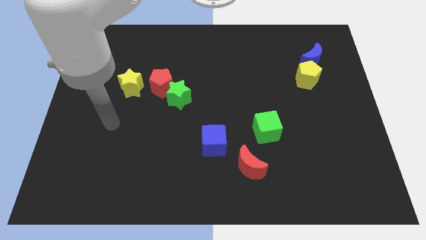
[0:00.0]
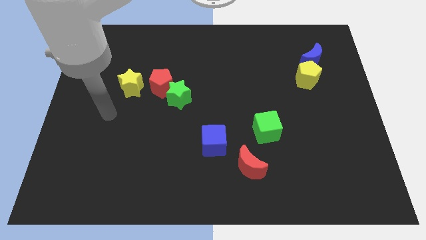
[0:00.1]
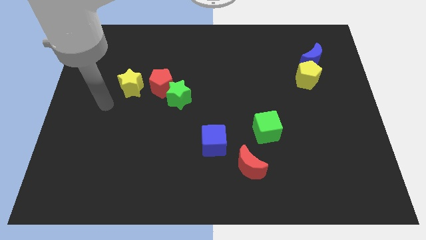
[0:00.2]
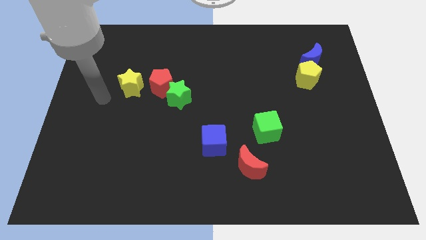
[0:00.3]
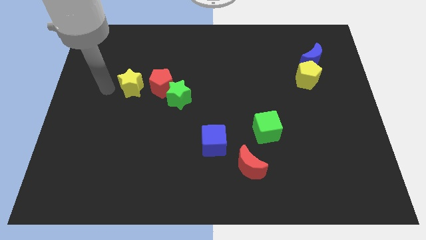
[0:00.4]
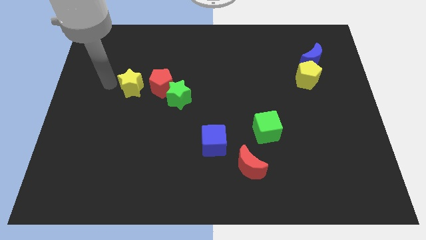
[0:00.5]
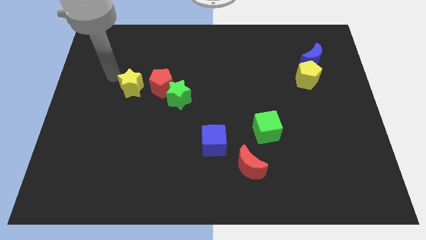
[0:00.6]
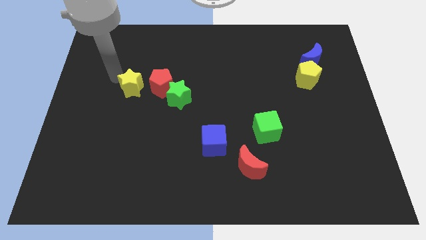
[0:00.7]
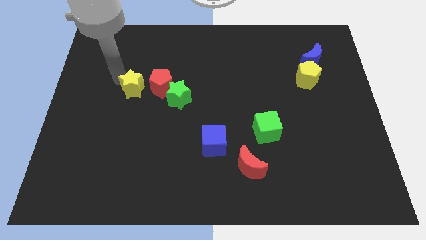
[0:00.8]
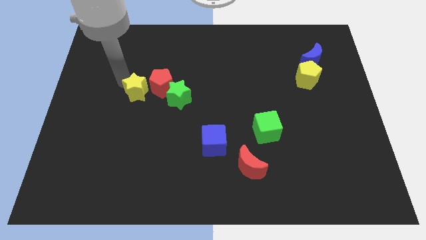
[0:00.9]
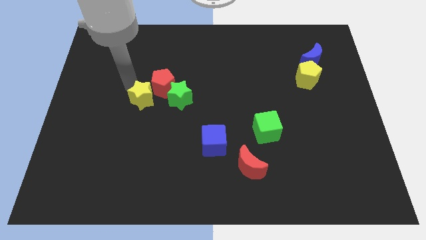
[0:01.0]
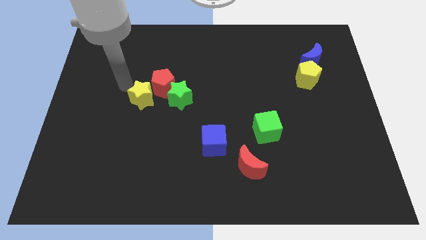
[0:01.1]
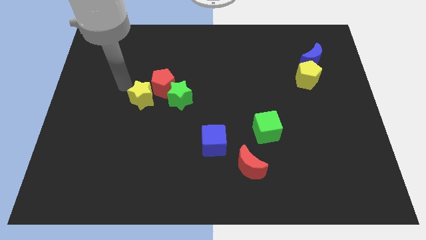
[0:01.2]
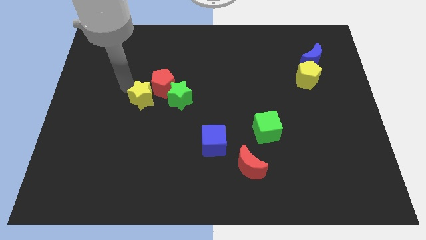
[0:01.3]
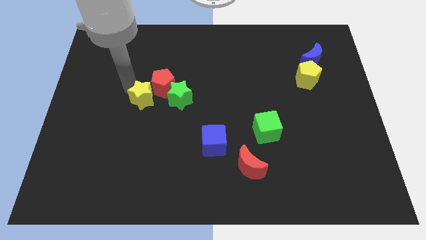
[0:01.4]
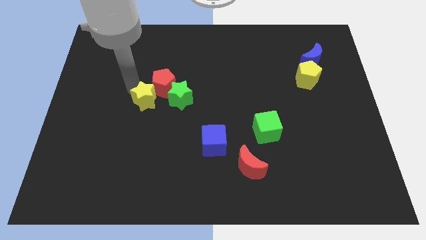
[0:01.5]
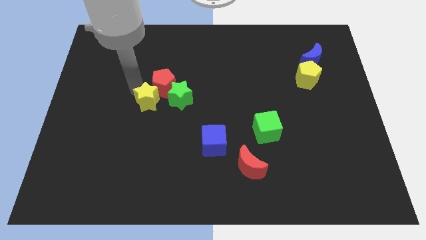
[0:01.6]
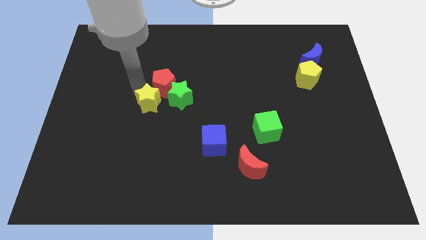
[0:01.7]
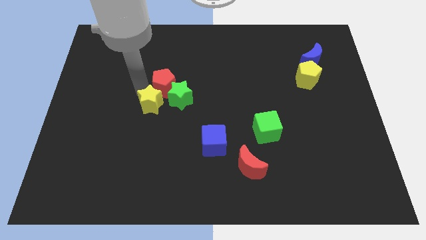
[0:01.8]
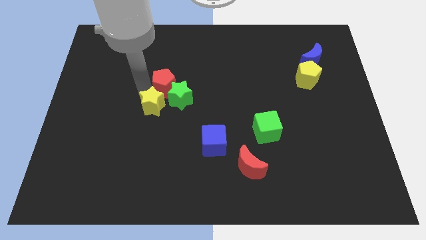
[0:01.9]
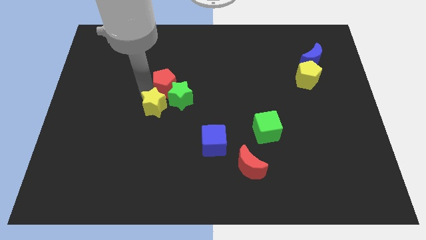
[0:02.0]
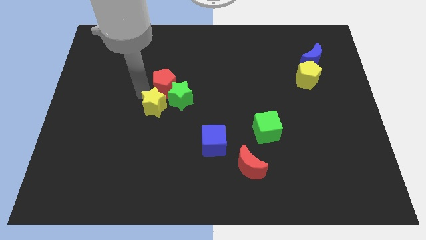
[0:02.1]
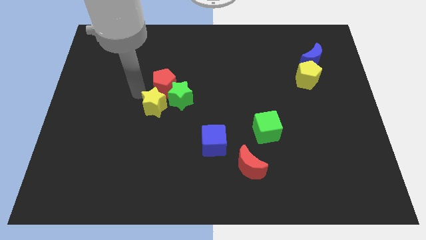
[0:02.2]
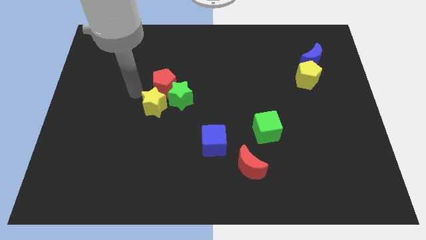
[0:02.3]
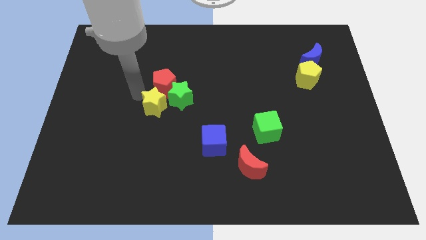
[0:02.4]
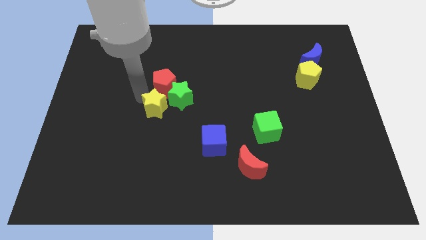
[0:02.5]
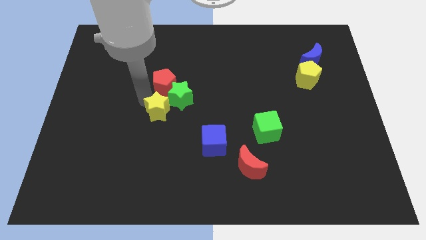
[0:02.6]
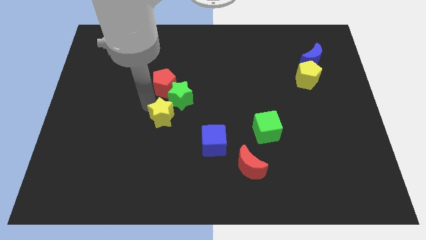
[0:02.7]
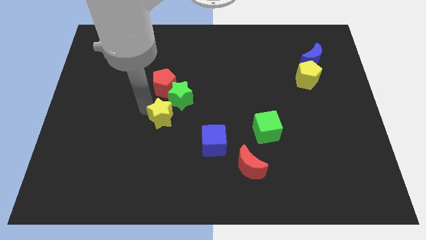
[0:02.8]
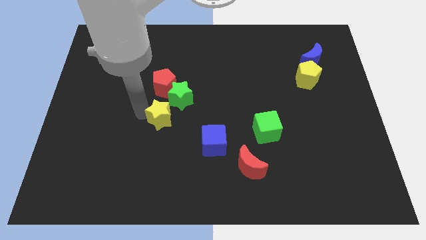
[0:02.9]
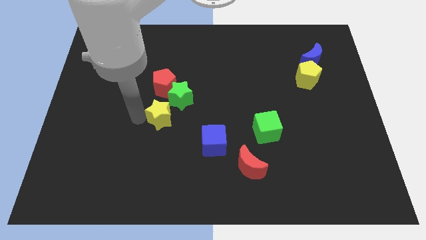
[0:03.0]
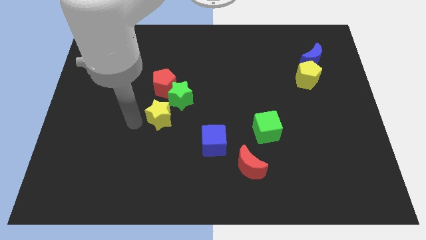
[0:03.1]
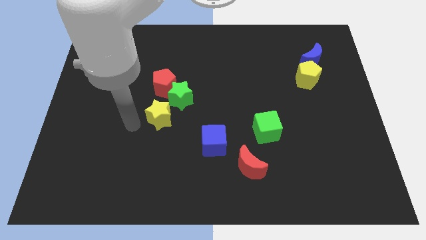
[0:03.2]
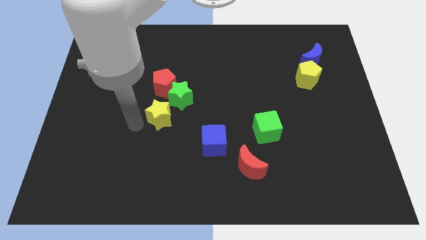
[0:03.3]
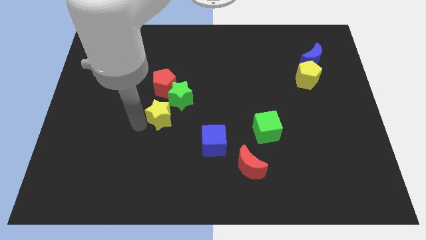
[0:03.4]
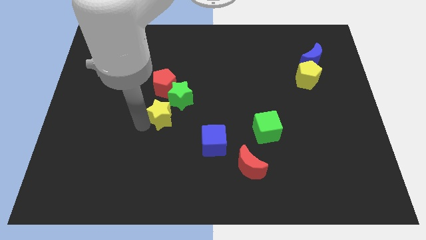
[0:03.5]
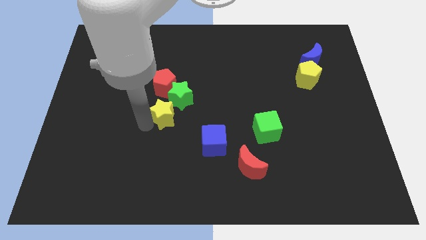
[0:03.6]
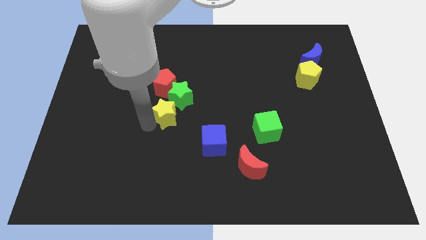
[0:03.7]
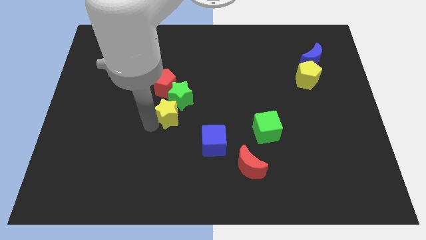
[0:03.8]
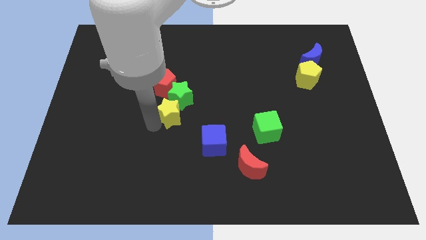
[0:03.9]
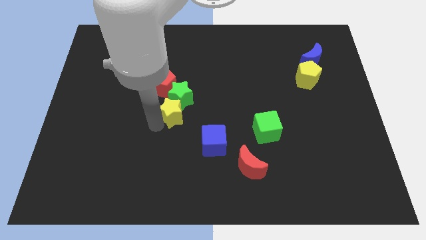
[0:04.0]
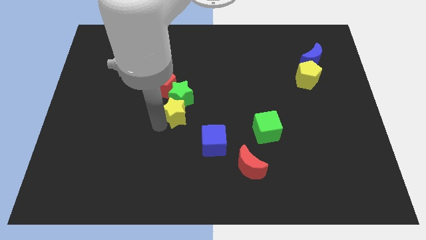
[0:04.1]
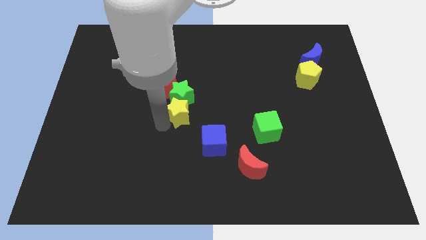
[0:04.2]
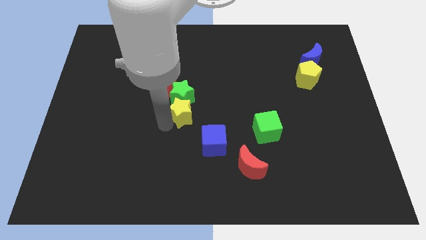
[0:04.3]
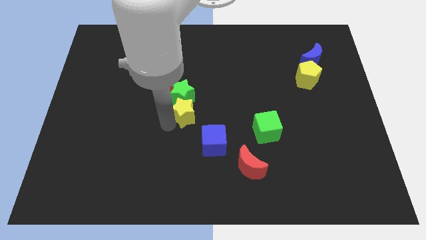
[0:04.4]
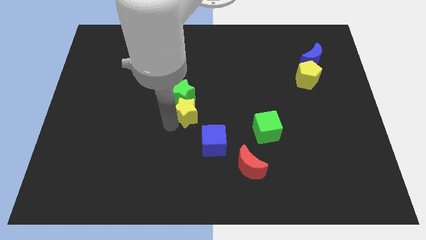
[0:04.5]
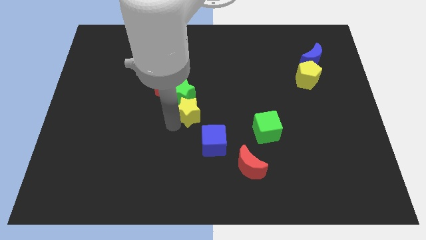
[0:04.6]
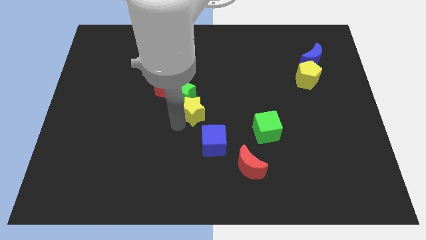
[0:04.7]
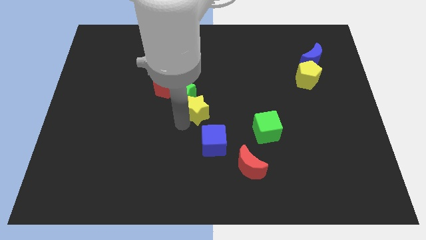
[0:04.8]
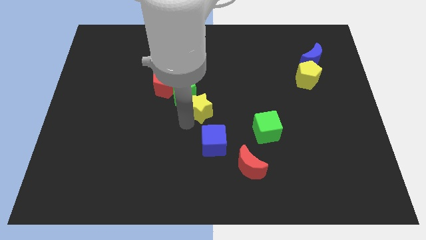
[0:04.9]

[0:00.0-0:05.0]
put the yellow star just right of the green star

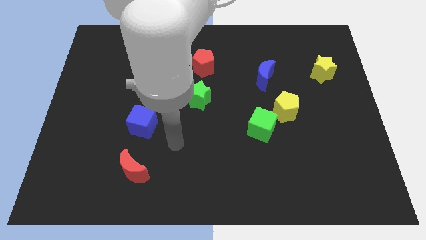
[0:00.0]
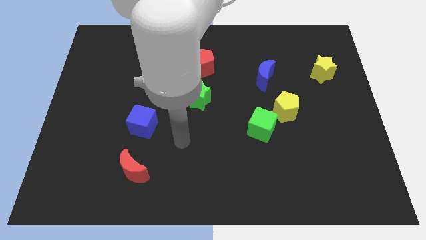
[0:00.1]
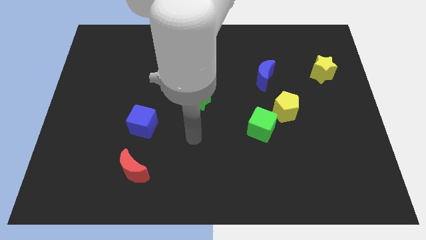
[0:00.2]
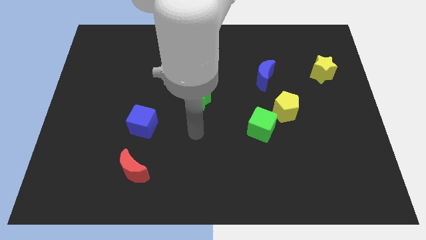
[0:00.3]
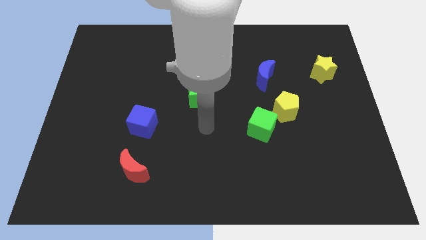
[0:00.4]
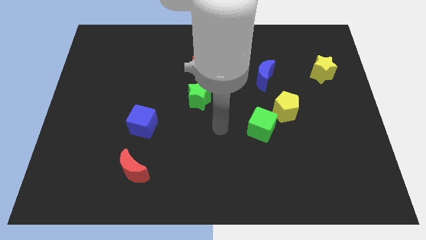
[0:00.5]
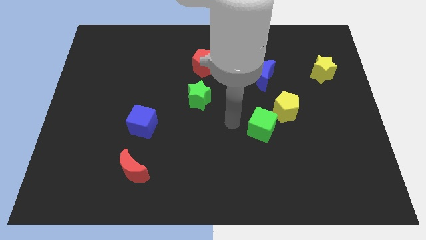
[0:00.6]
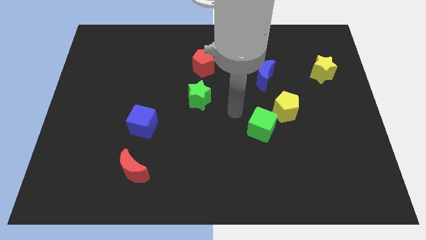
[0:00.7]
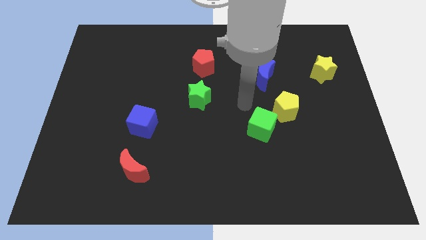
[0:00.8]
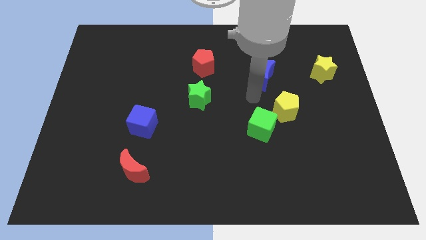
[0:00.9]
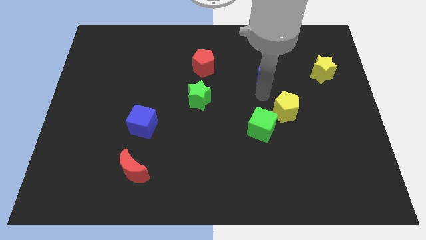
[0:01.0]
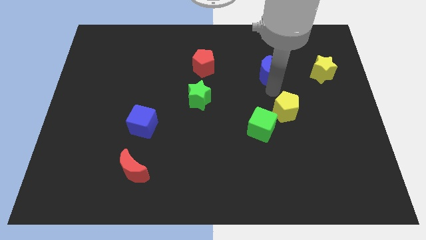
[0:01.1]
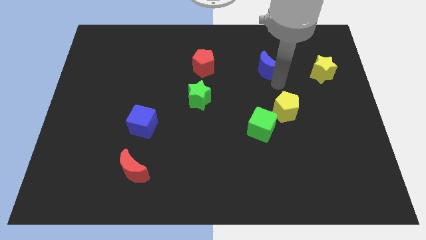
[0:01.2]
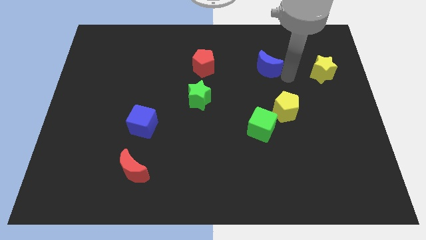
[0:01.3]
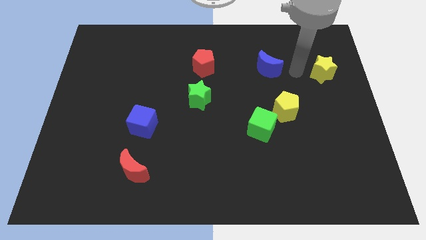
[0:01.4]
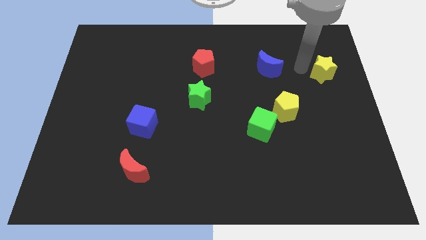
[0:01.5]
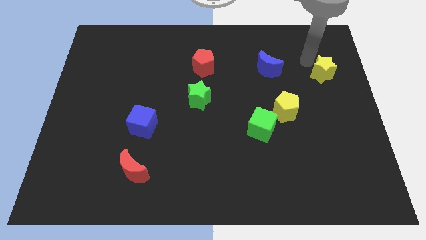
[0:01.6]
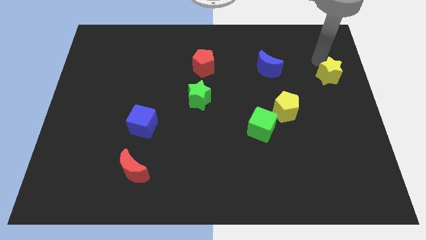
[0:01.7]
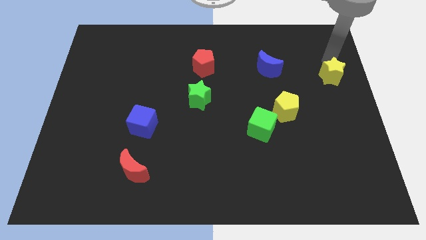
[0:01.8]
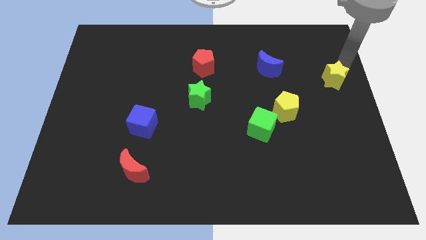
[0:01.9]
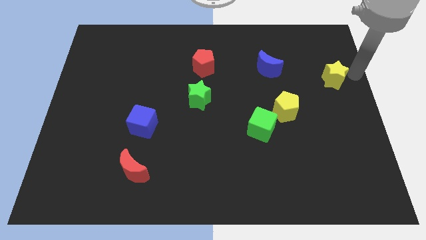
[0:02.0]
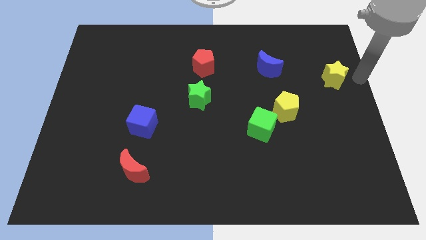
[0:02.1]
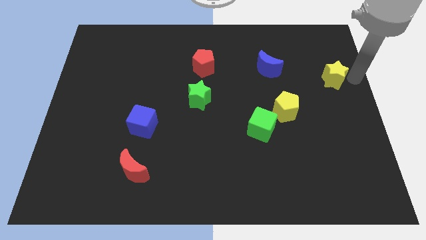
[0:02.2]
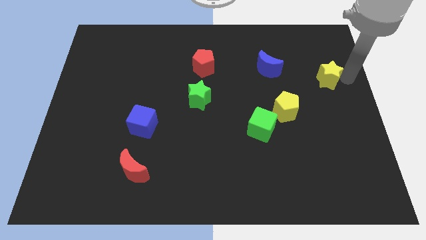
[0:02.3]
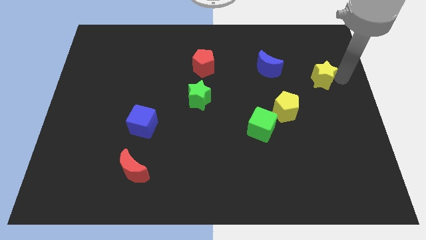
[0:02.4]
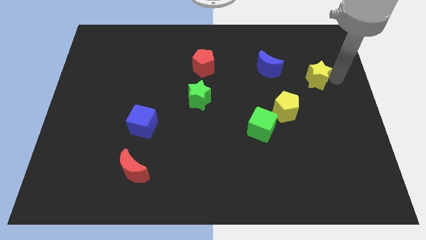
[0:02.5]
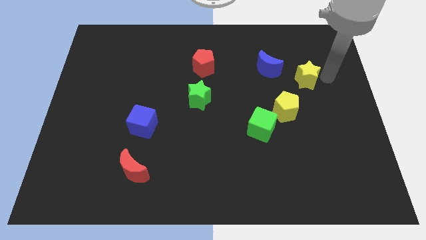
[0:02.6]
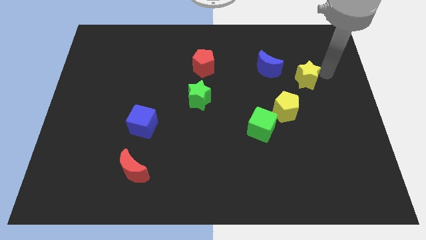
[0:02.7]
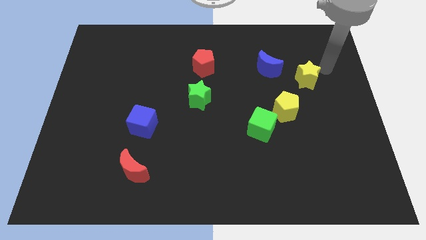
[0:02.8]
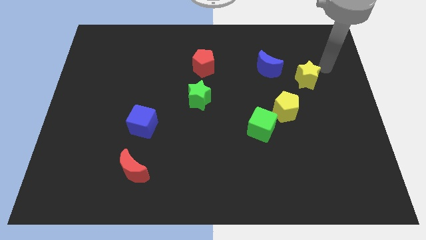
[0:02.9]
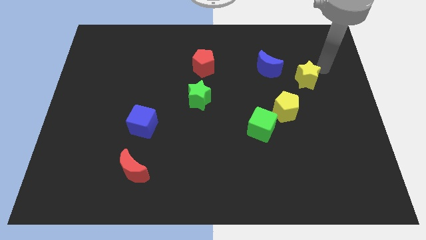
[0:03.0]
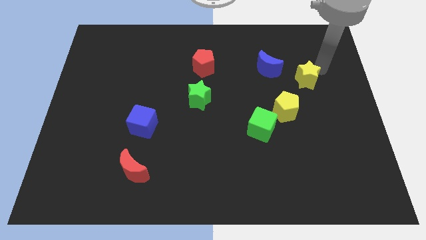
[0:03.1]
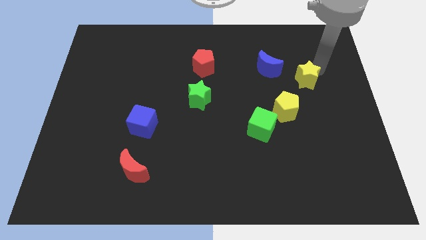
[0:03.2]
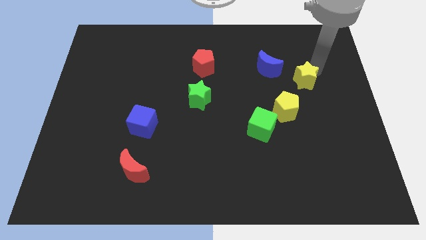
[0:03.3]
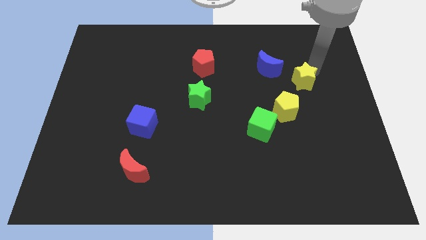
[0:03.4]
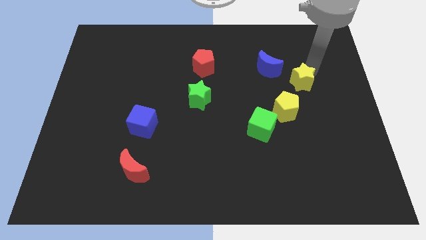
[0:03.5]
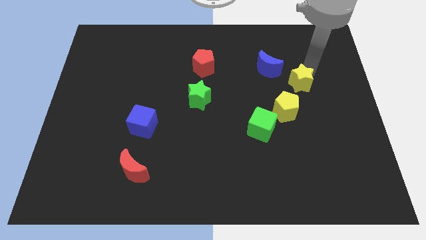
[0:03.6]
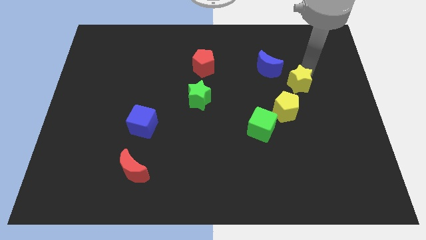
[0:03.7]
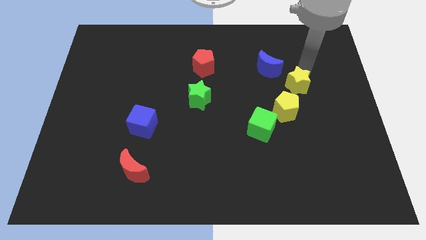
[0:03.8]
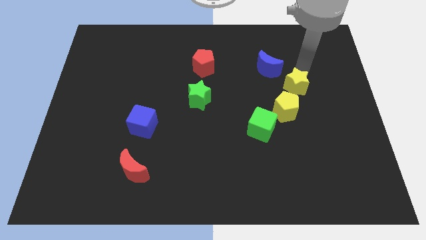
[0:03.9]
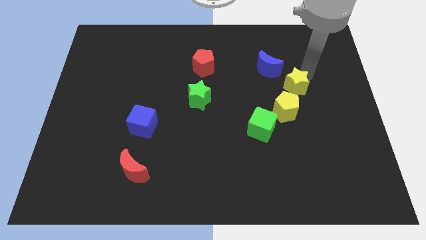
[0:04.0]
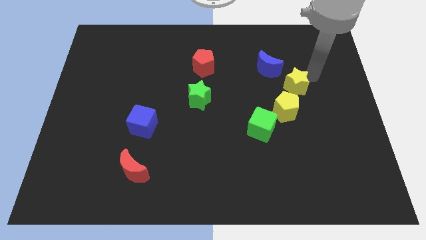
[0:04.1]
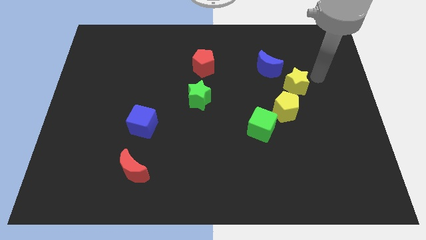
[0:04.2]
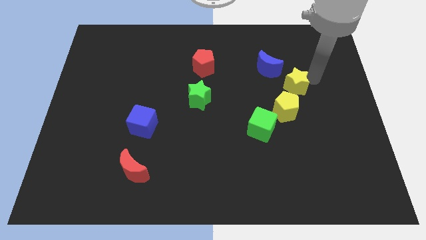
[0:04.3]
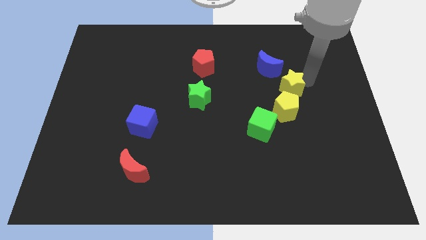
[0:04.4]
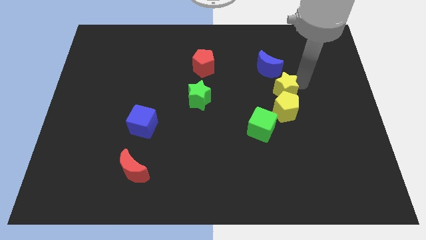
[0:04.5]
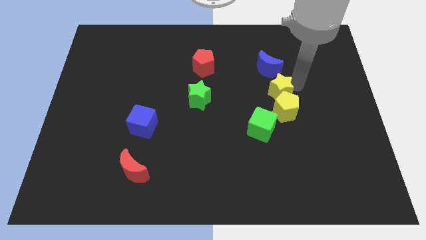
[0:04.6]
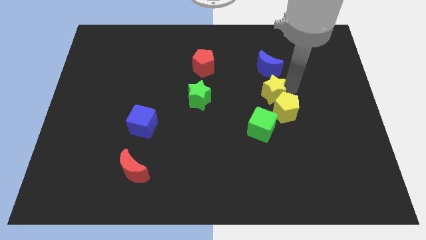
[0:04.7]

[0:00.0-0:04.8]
slide the yellow star above the green cube
